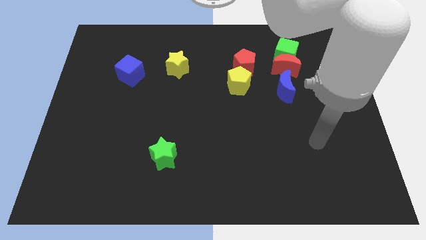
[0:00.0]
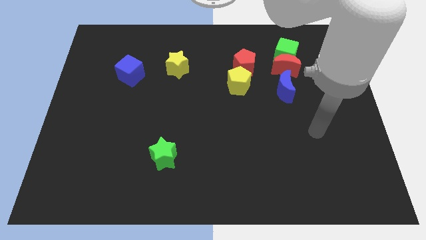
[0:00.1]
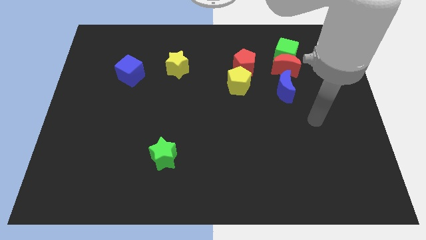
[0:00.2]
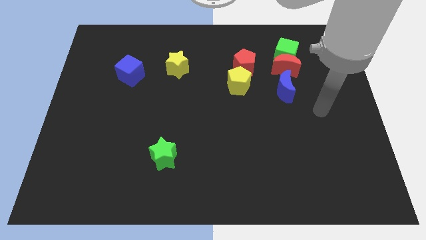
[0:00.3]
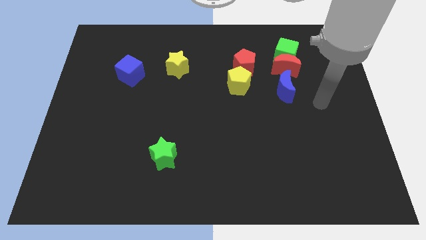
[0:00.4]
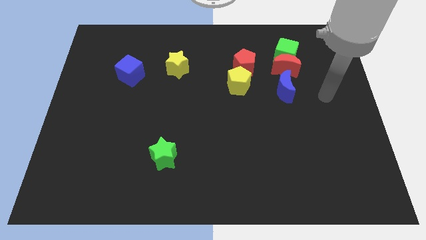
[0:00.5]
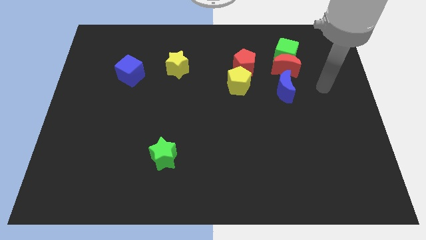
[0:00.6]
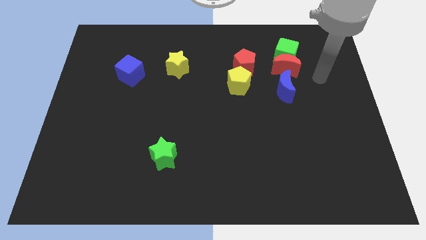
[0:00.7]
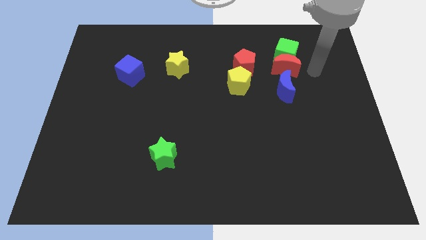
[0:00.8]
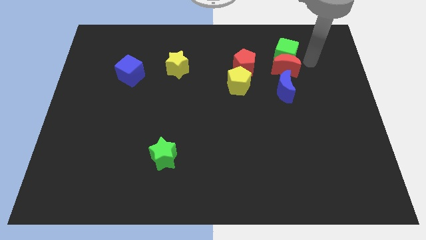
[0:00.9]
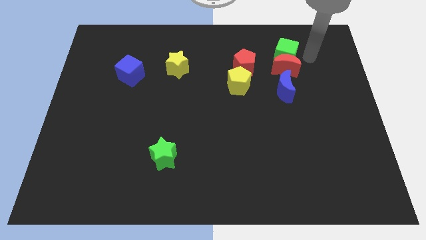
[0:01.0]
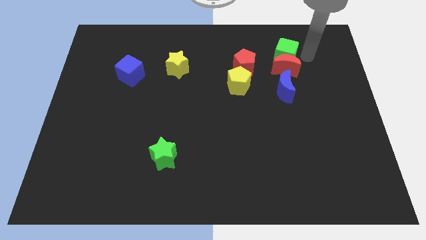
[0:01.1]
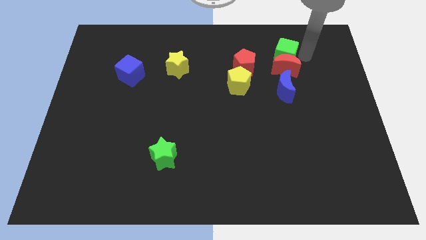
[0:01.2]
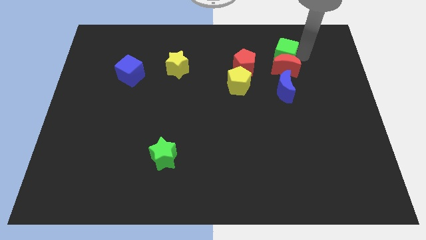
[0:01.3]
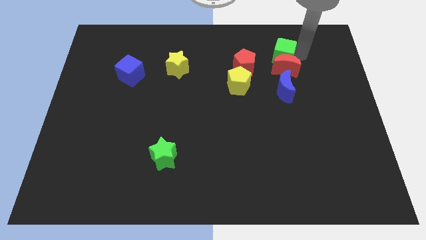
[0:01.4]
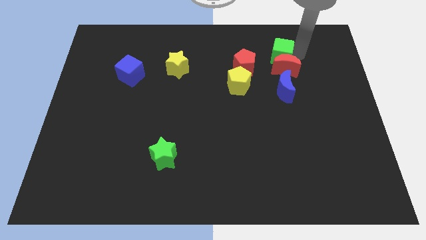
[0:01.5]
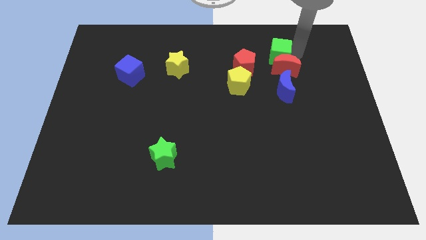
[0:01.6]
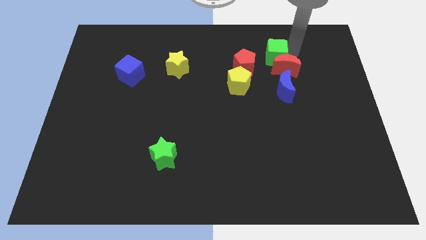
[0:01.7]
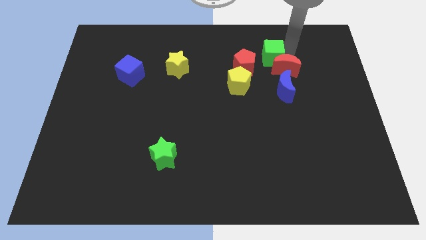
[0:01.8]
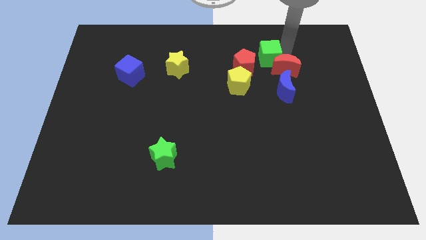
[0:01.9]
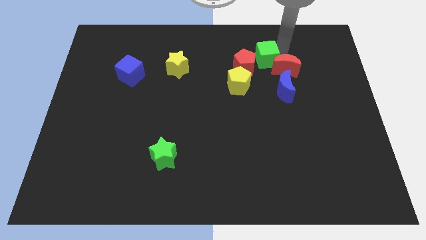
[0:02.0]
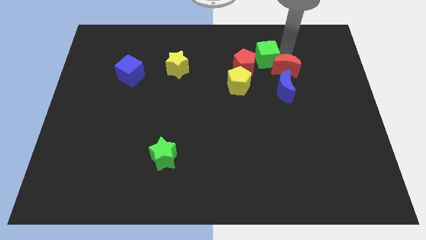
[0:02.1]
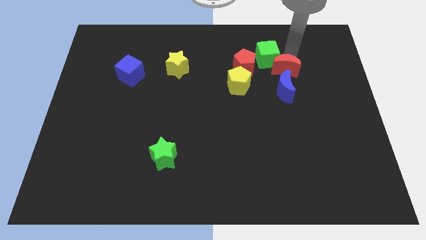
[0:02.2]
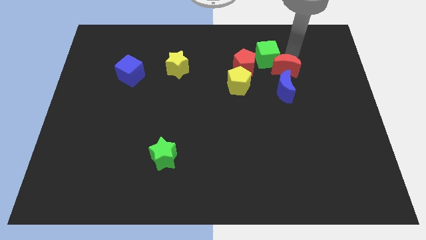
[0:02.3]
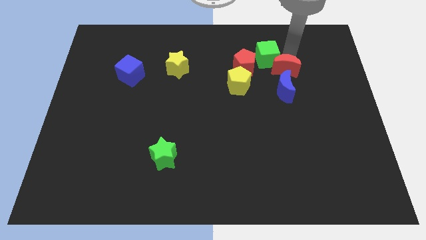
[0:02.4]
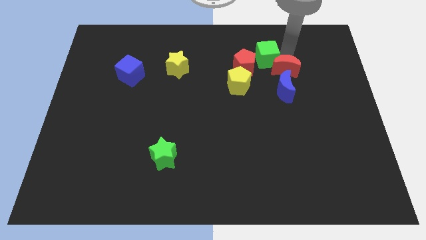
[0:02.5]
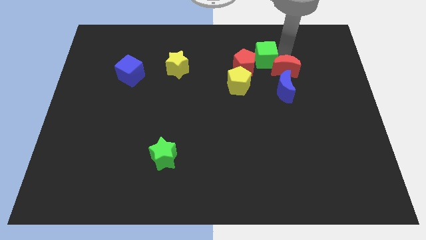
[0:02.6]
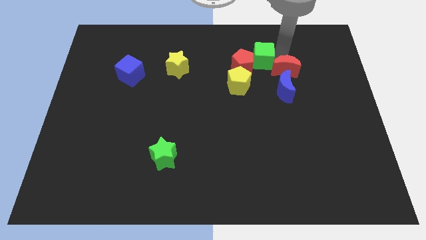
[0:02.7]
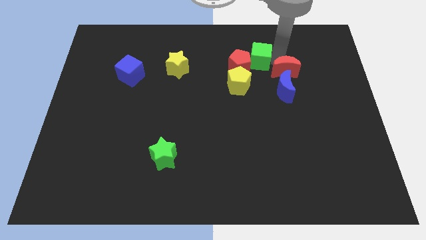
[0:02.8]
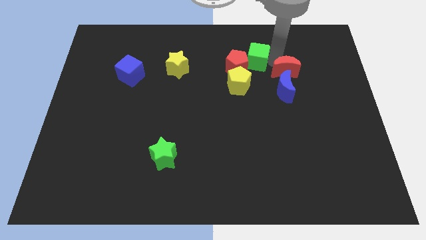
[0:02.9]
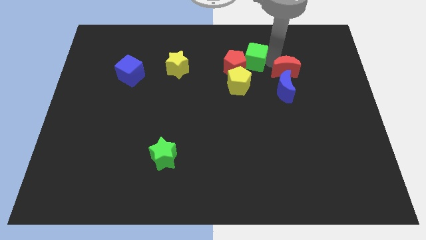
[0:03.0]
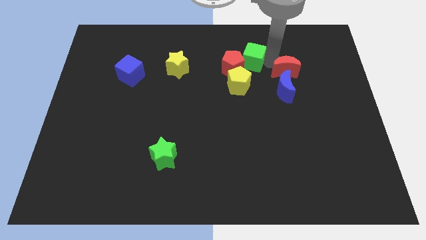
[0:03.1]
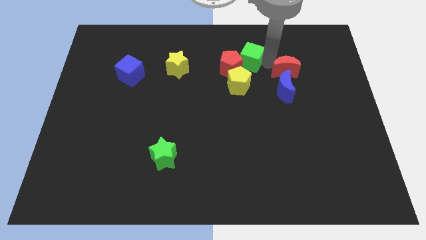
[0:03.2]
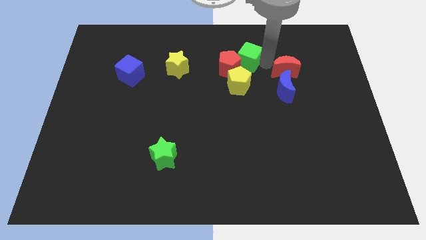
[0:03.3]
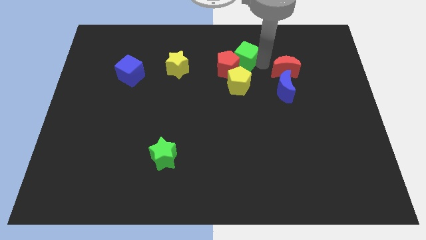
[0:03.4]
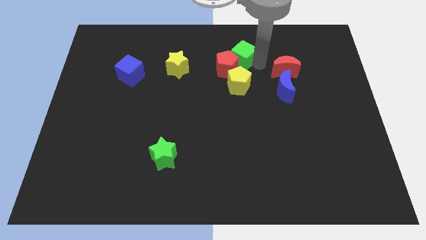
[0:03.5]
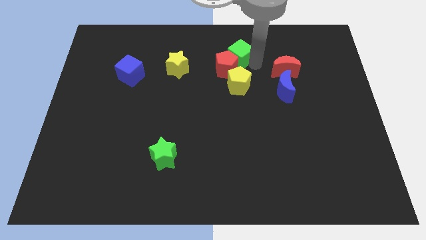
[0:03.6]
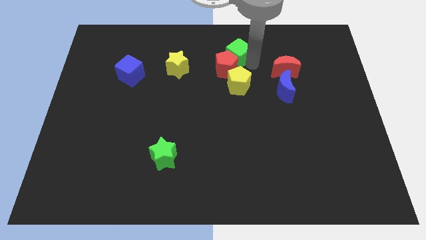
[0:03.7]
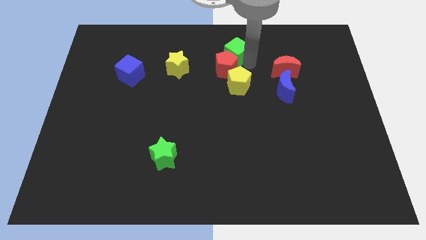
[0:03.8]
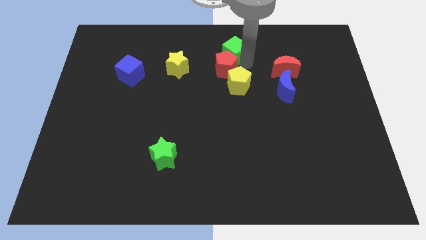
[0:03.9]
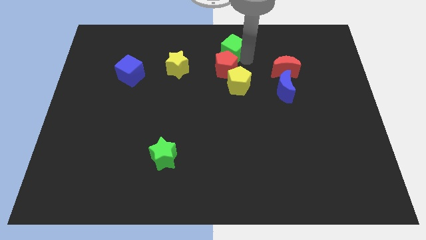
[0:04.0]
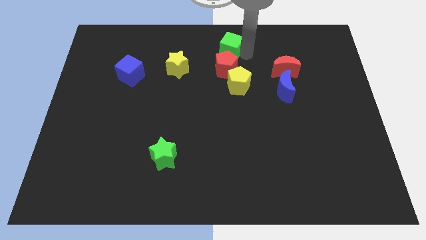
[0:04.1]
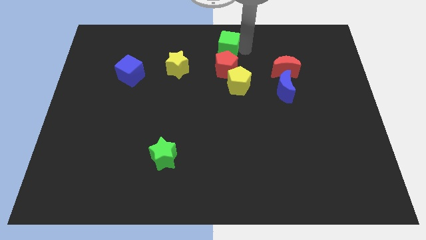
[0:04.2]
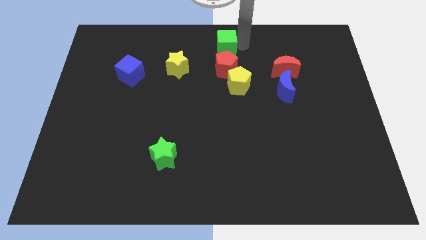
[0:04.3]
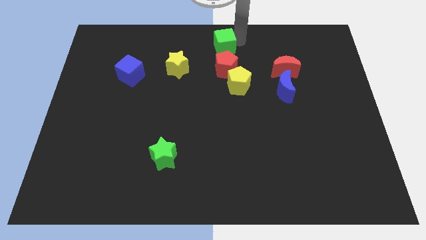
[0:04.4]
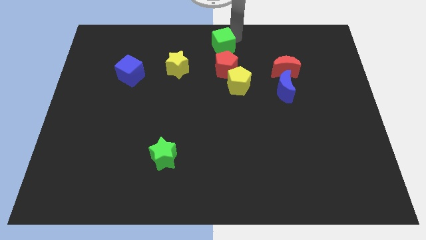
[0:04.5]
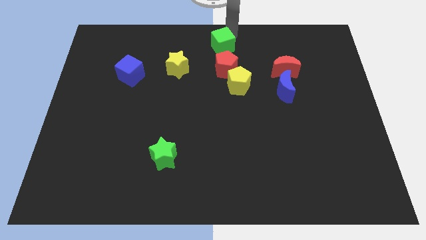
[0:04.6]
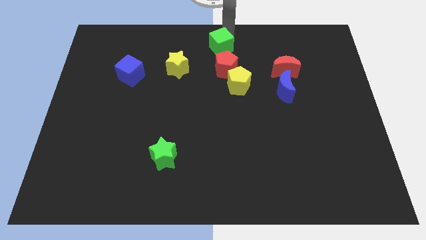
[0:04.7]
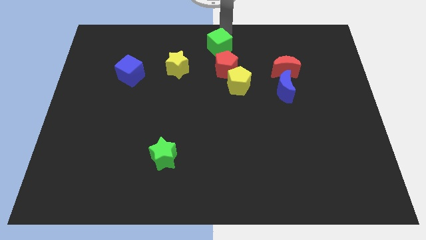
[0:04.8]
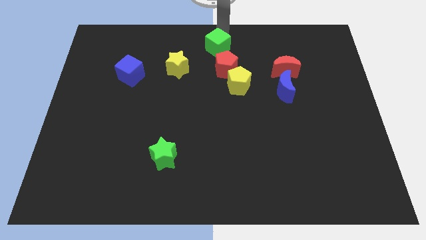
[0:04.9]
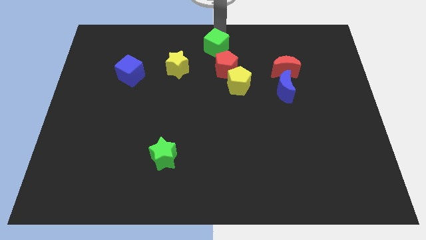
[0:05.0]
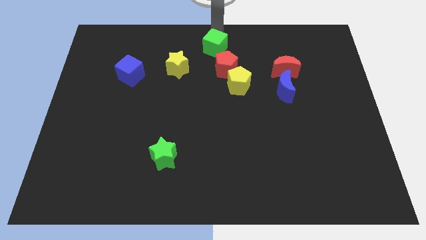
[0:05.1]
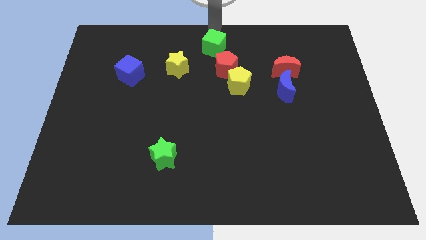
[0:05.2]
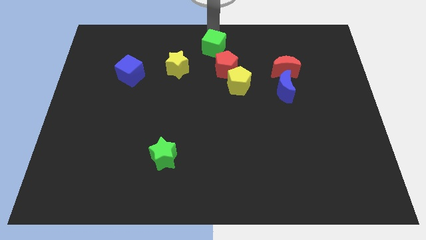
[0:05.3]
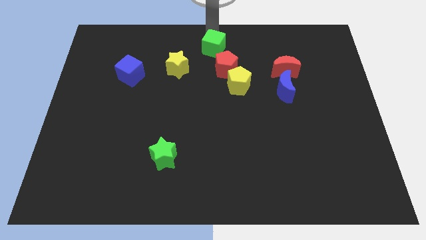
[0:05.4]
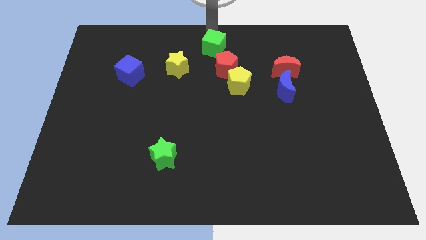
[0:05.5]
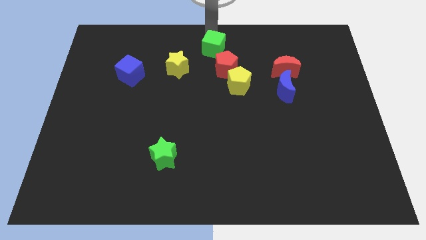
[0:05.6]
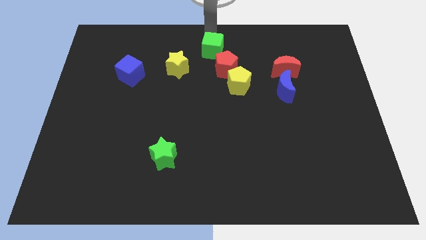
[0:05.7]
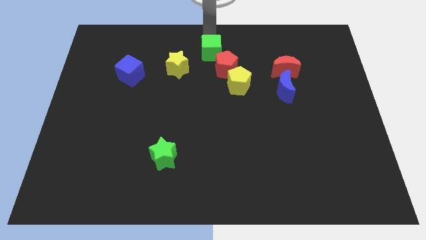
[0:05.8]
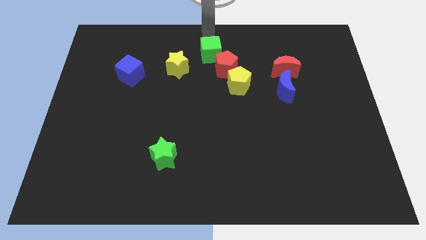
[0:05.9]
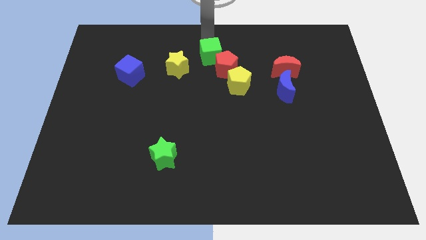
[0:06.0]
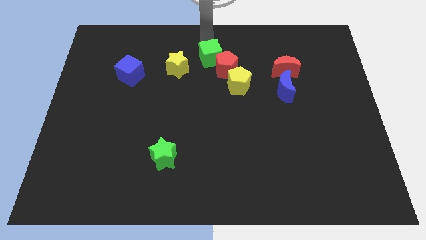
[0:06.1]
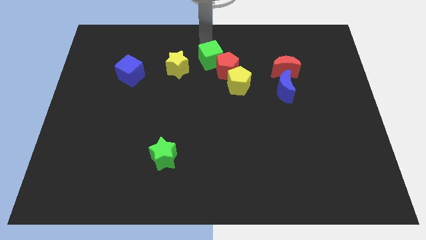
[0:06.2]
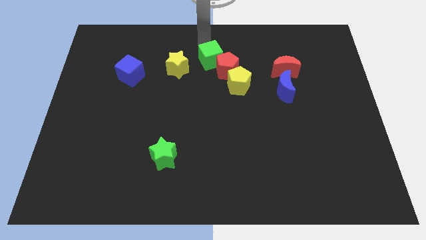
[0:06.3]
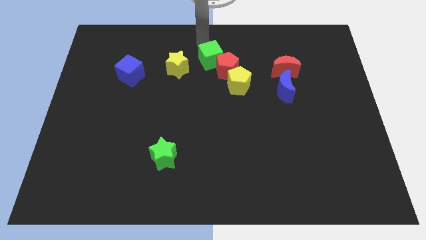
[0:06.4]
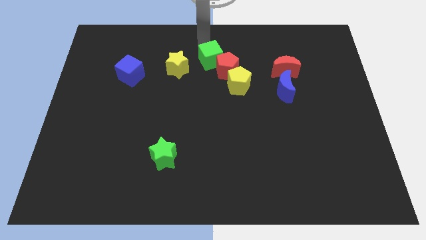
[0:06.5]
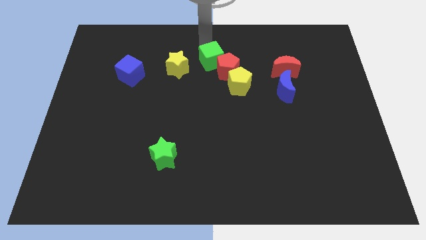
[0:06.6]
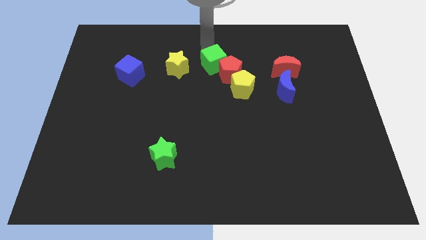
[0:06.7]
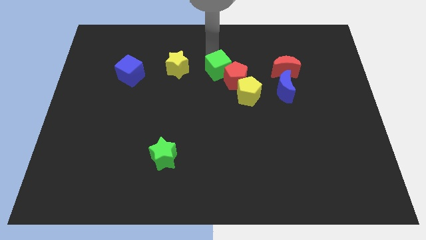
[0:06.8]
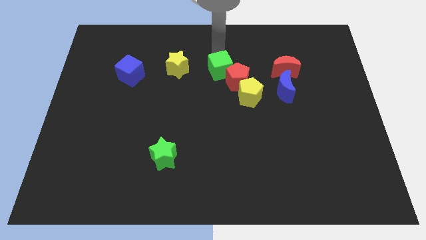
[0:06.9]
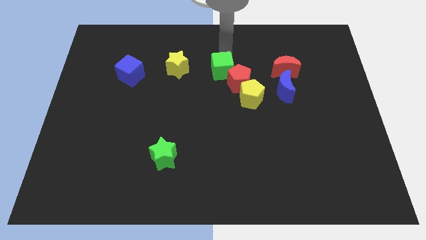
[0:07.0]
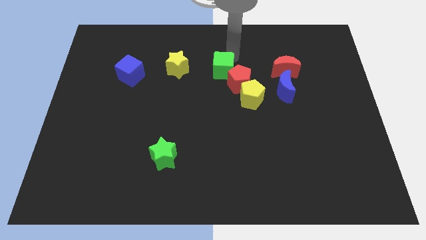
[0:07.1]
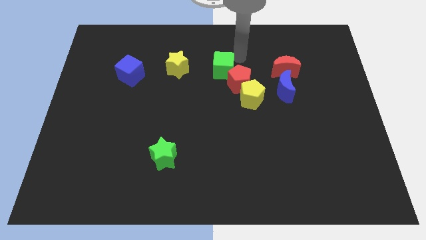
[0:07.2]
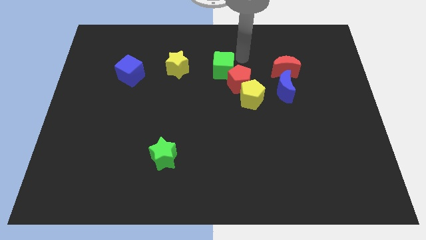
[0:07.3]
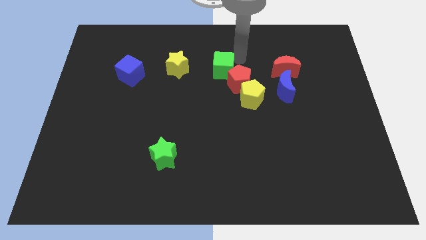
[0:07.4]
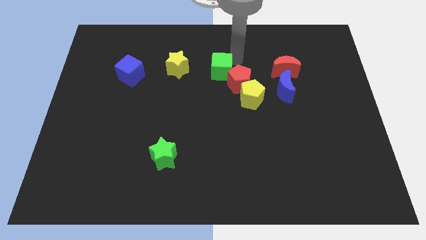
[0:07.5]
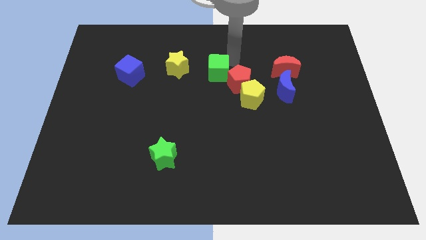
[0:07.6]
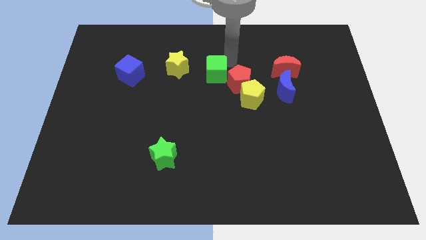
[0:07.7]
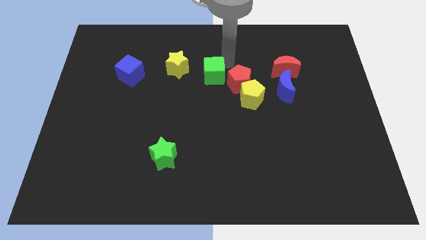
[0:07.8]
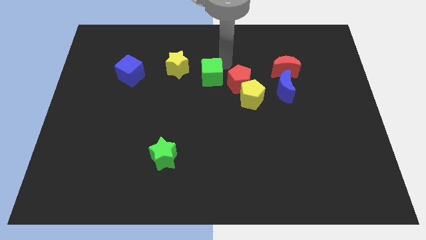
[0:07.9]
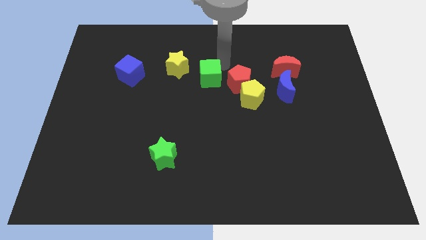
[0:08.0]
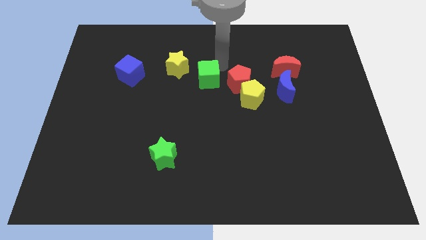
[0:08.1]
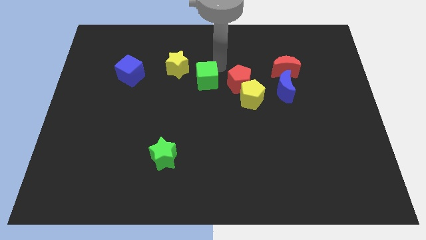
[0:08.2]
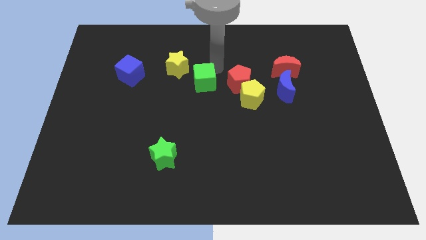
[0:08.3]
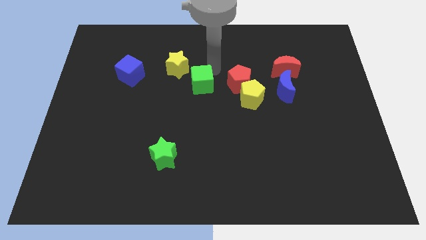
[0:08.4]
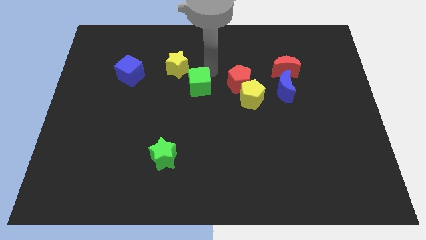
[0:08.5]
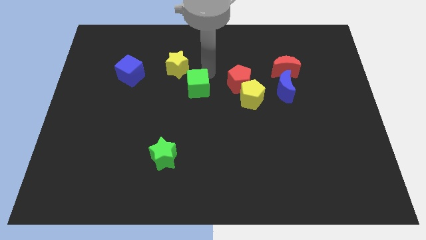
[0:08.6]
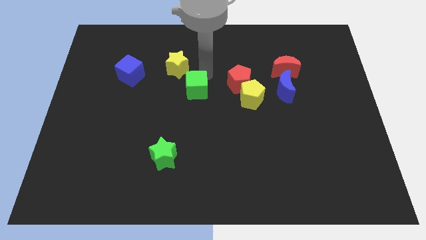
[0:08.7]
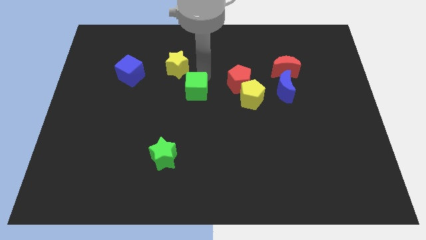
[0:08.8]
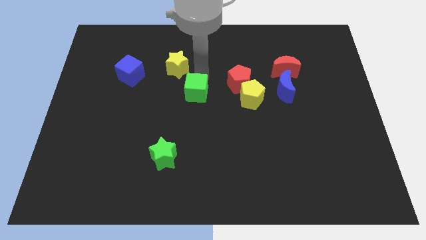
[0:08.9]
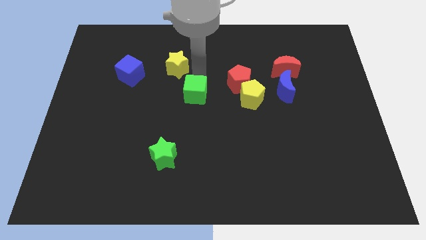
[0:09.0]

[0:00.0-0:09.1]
push the green cube to the bottom of the yellow star
